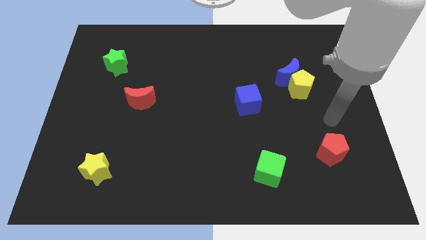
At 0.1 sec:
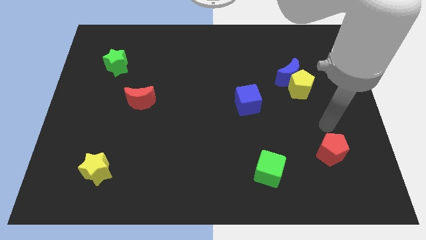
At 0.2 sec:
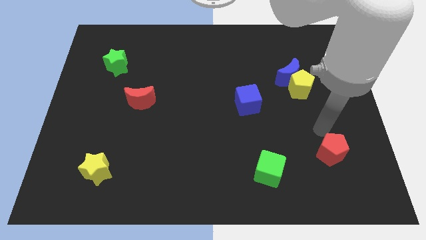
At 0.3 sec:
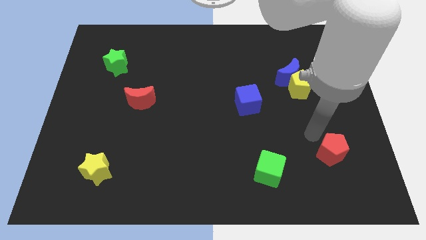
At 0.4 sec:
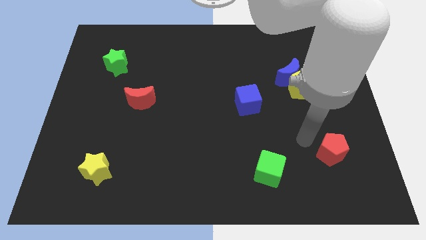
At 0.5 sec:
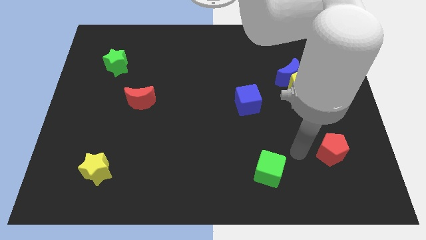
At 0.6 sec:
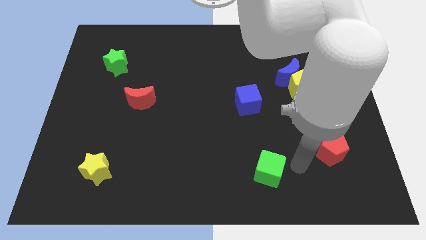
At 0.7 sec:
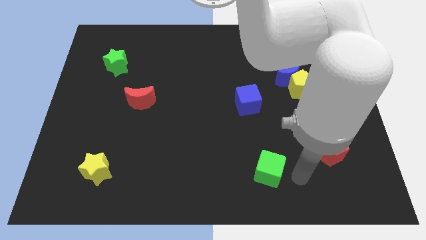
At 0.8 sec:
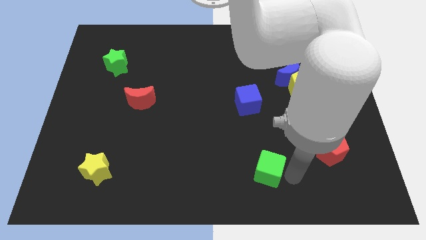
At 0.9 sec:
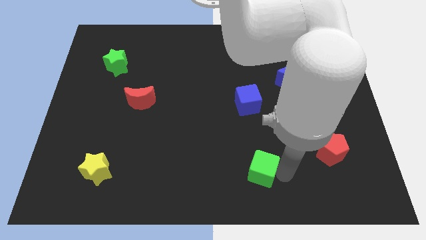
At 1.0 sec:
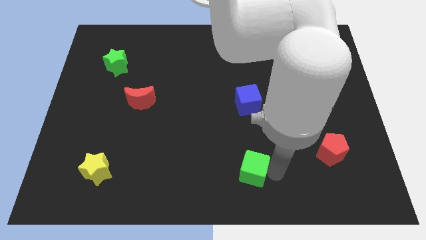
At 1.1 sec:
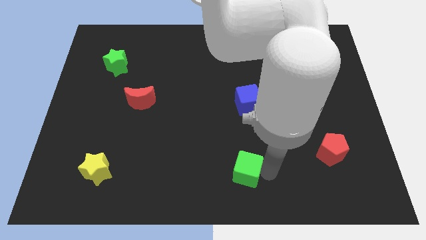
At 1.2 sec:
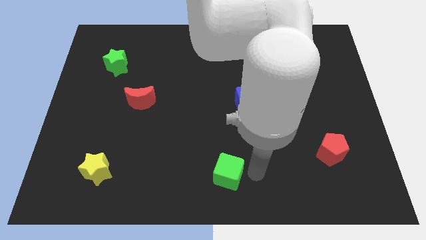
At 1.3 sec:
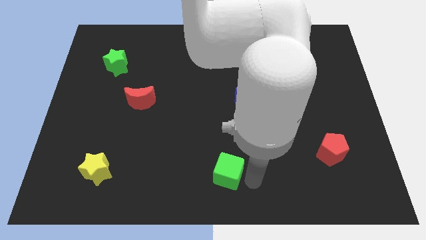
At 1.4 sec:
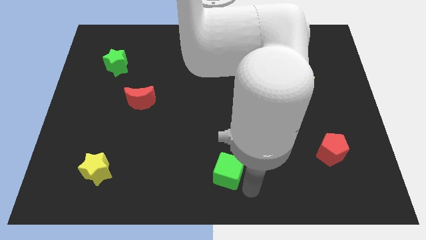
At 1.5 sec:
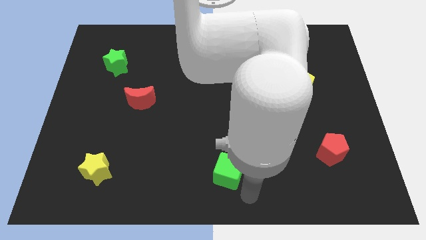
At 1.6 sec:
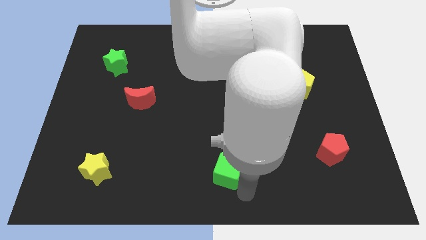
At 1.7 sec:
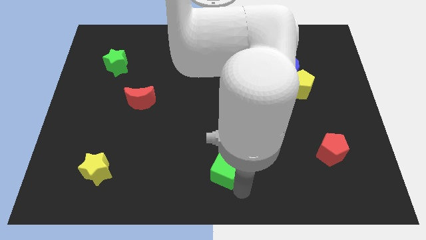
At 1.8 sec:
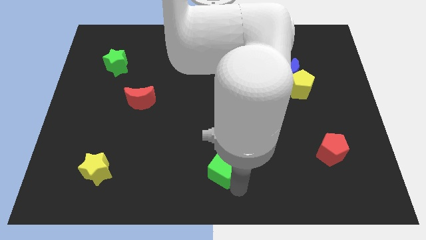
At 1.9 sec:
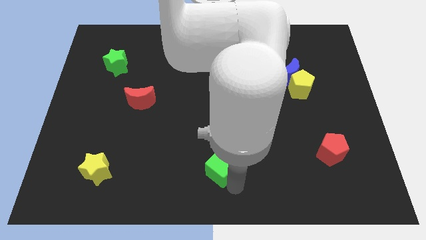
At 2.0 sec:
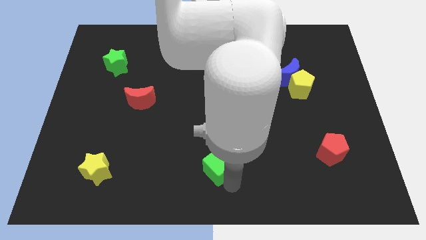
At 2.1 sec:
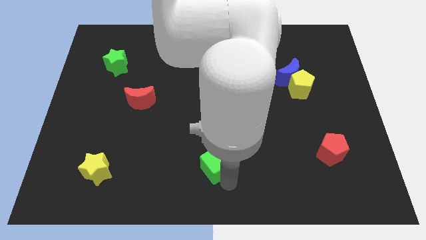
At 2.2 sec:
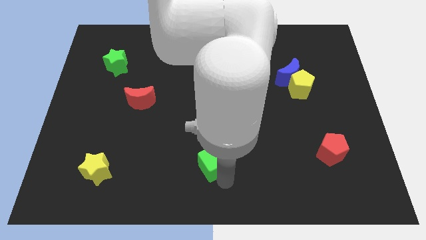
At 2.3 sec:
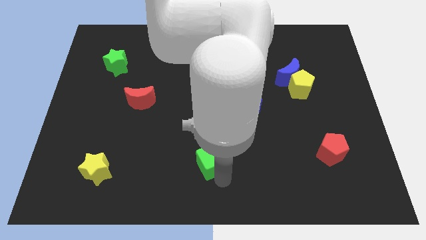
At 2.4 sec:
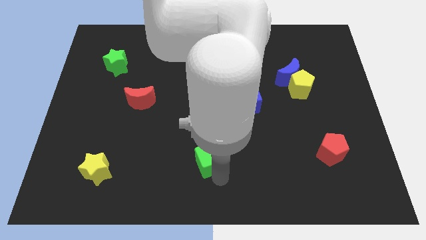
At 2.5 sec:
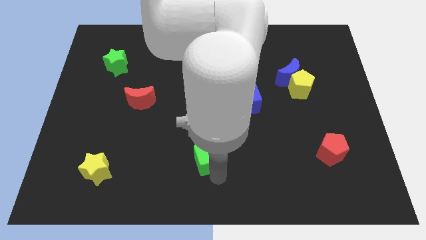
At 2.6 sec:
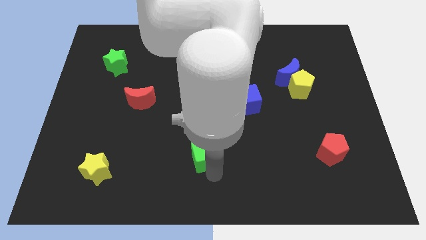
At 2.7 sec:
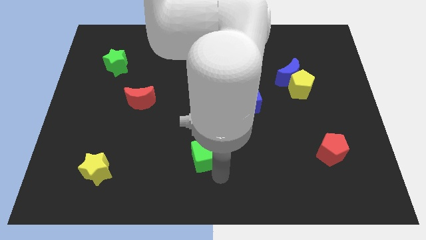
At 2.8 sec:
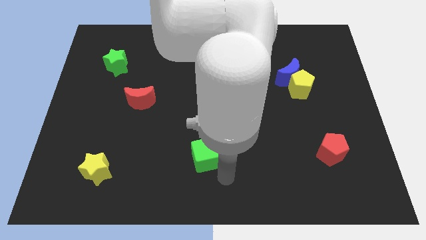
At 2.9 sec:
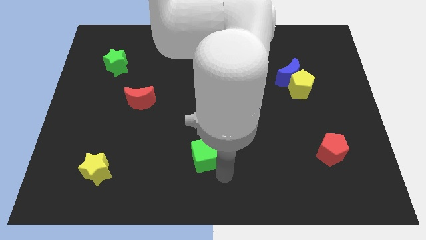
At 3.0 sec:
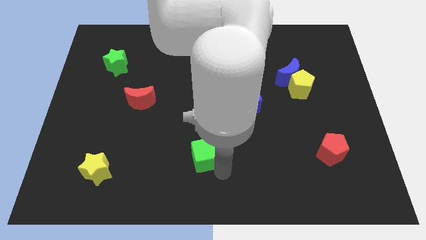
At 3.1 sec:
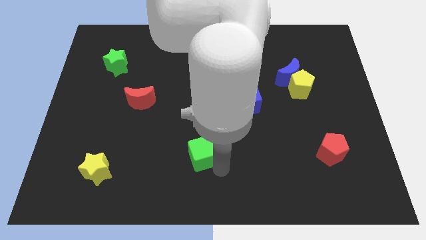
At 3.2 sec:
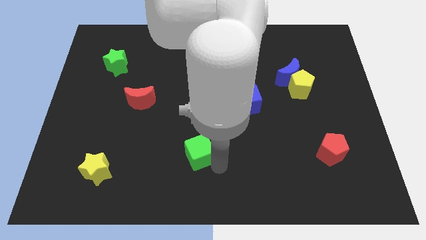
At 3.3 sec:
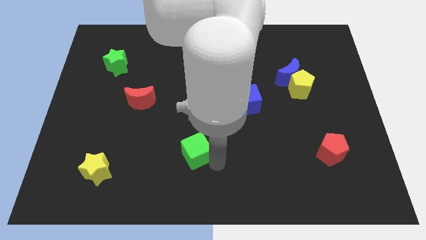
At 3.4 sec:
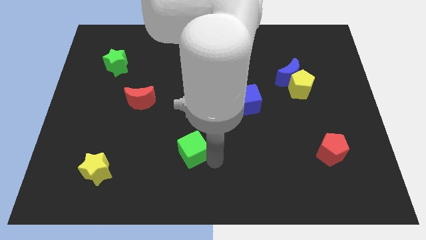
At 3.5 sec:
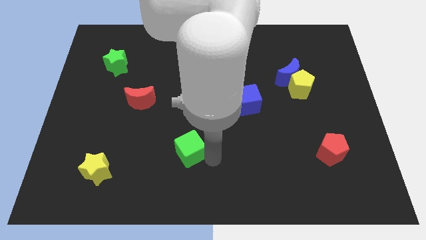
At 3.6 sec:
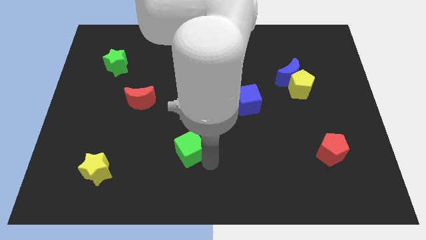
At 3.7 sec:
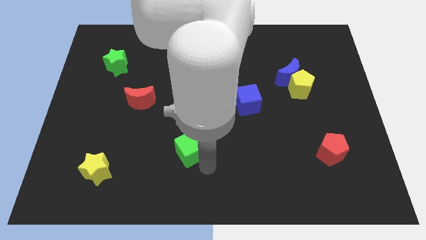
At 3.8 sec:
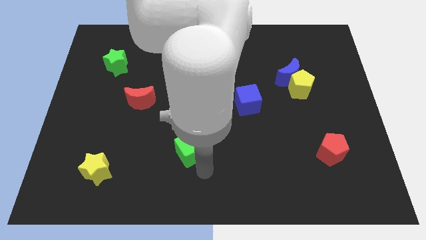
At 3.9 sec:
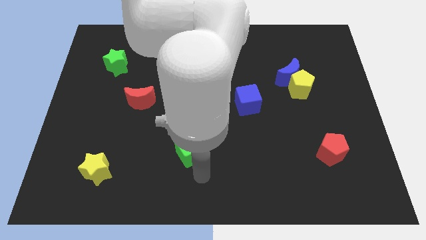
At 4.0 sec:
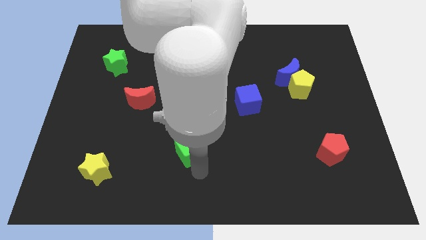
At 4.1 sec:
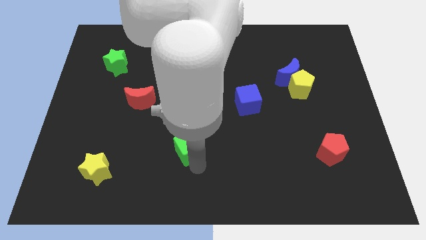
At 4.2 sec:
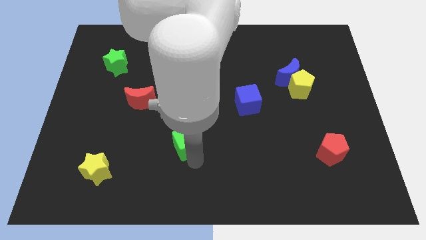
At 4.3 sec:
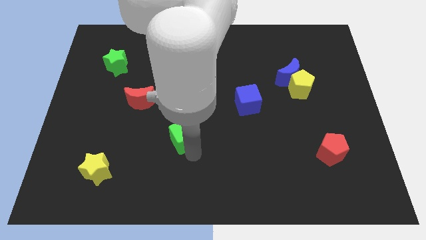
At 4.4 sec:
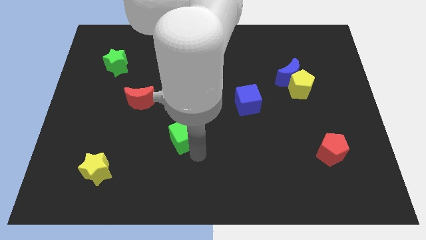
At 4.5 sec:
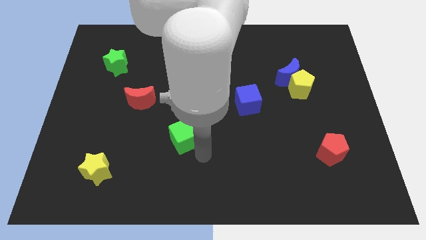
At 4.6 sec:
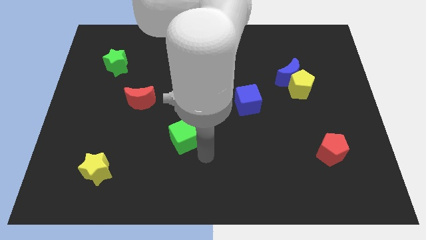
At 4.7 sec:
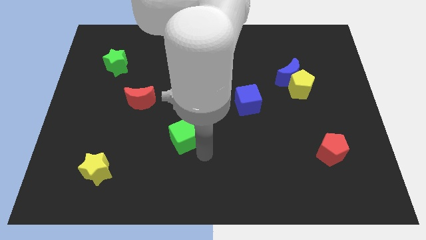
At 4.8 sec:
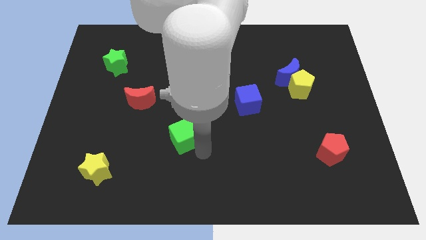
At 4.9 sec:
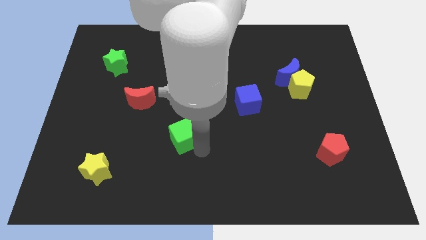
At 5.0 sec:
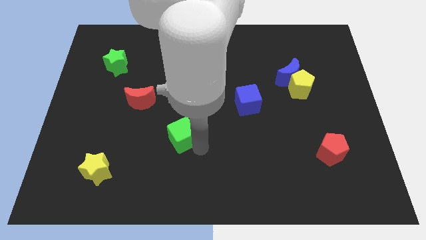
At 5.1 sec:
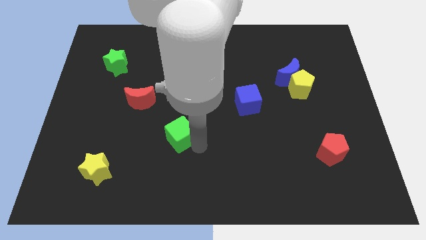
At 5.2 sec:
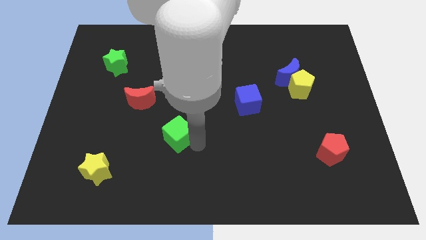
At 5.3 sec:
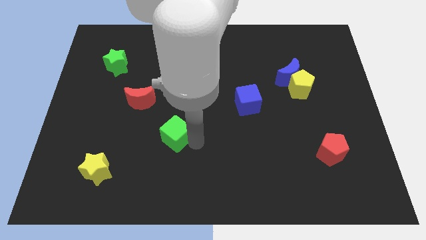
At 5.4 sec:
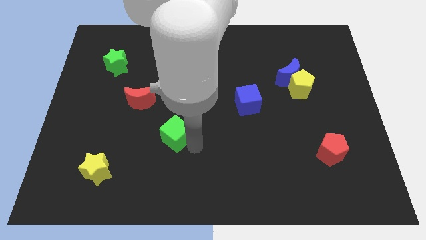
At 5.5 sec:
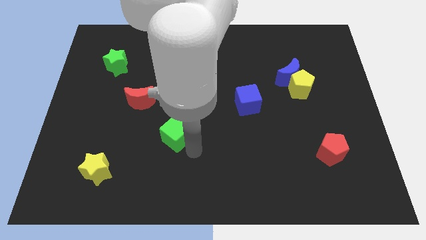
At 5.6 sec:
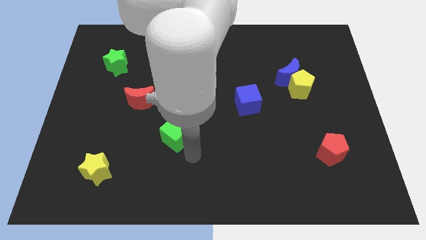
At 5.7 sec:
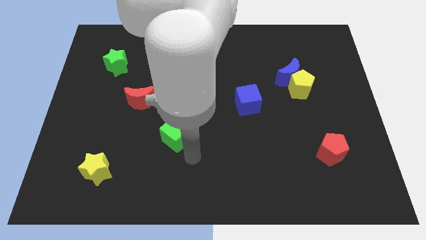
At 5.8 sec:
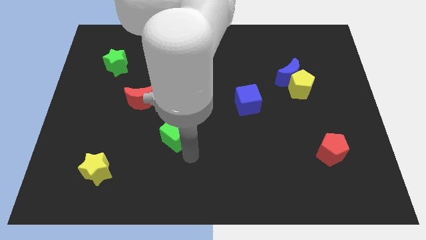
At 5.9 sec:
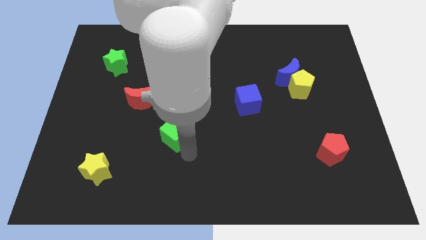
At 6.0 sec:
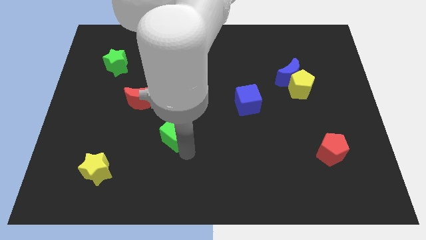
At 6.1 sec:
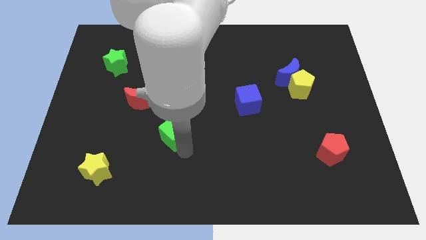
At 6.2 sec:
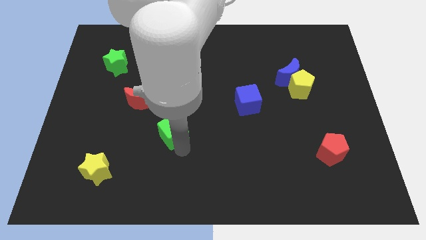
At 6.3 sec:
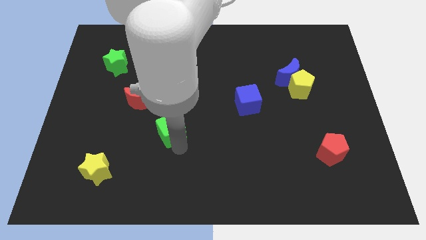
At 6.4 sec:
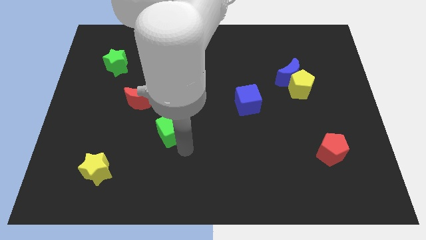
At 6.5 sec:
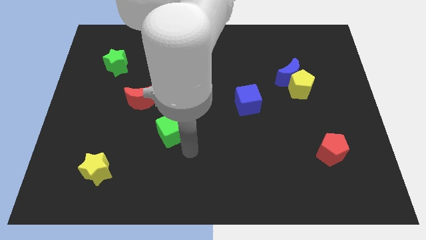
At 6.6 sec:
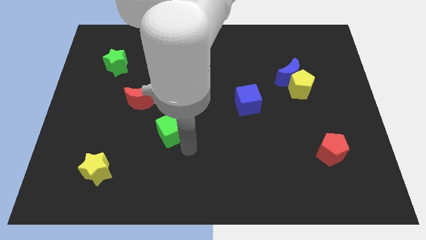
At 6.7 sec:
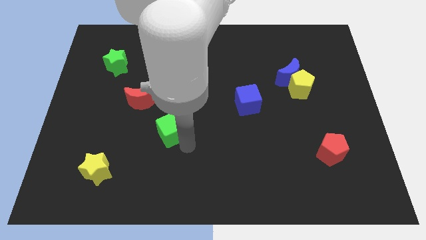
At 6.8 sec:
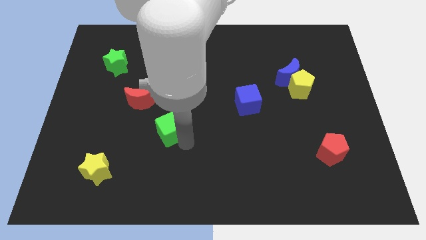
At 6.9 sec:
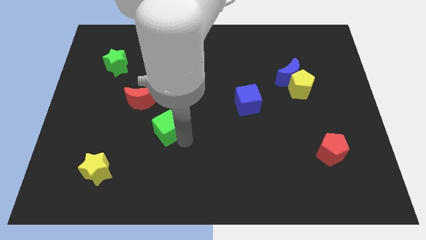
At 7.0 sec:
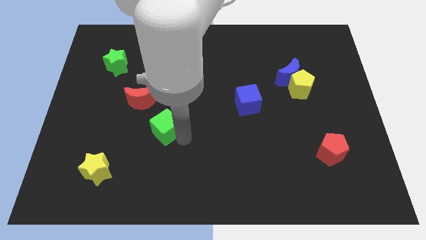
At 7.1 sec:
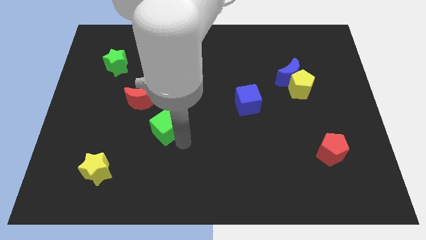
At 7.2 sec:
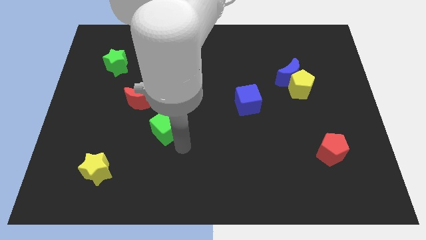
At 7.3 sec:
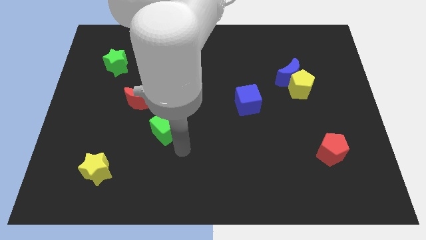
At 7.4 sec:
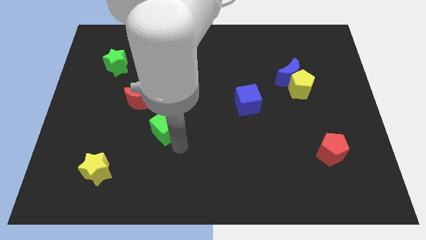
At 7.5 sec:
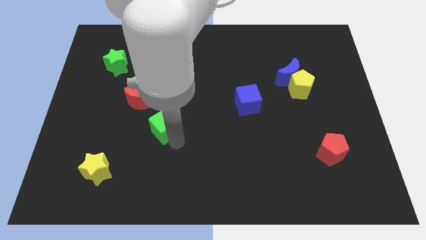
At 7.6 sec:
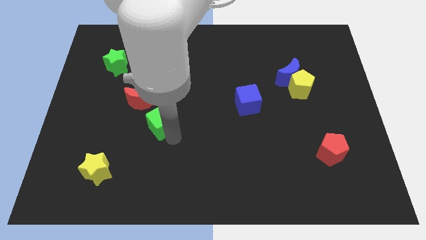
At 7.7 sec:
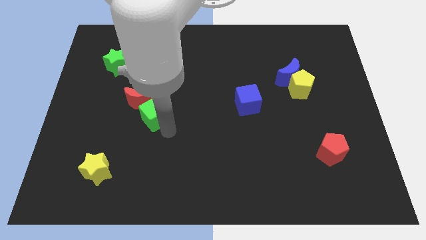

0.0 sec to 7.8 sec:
move the green cube close to the red moon
